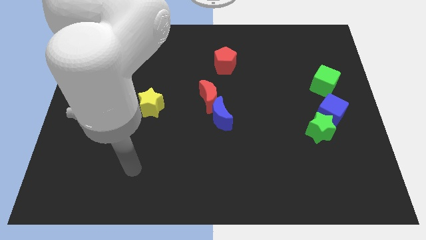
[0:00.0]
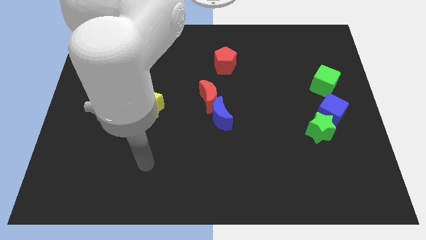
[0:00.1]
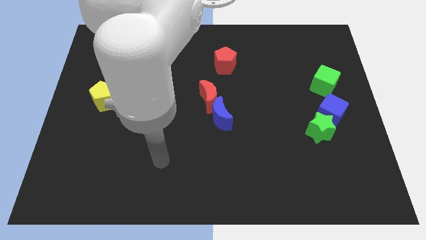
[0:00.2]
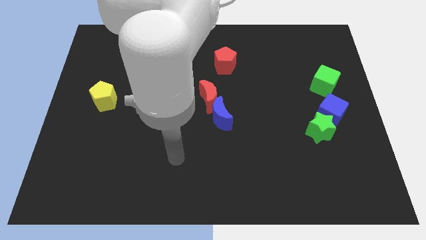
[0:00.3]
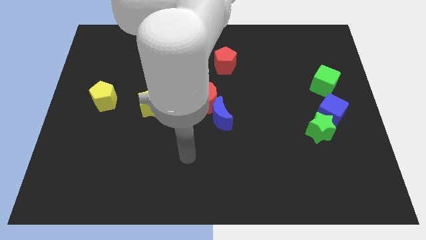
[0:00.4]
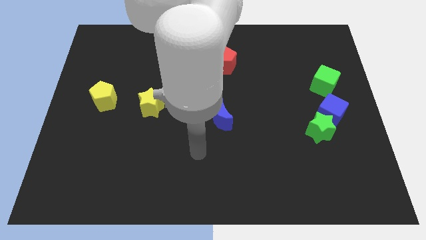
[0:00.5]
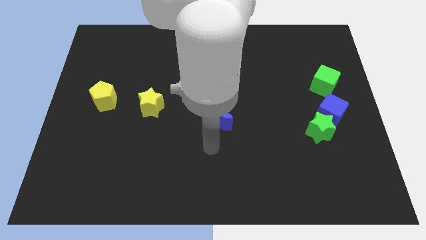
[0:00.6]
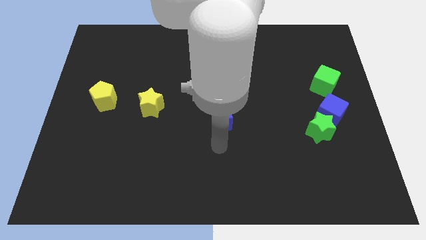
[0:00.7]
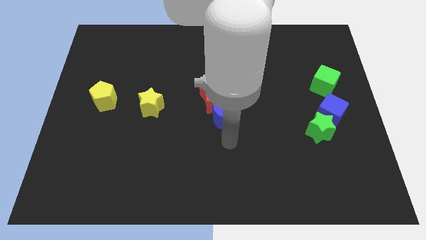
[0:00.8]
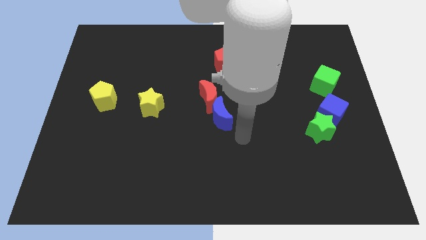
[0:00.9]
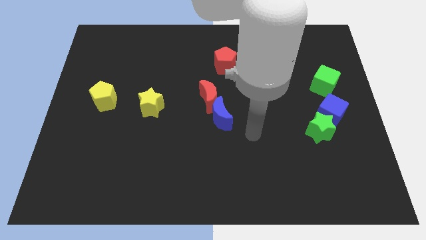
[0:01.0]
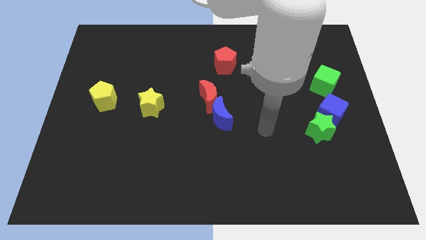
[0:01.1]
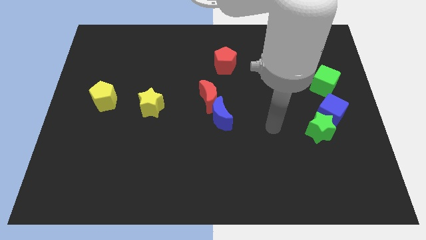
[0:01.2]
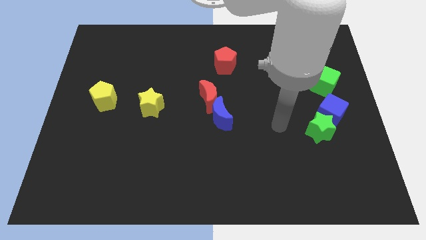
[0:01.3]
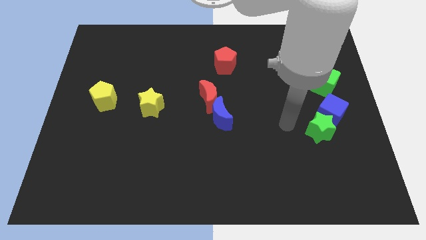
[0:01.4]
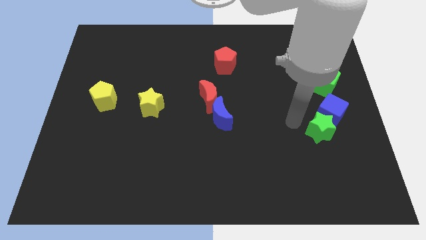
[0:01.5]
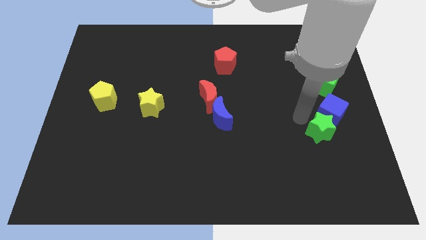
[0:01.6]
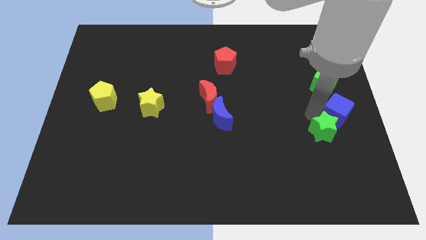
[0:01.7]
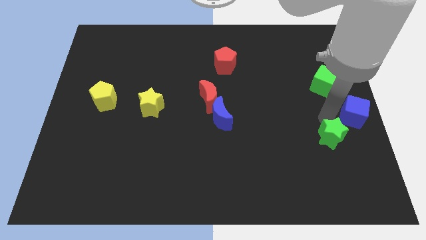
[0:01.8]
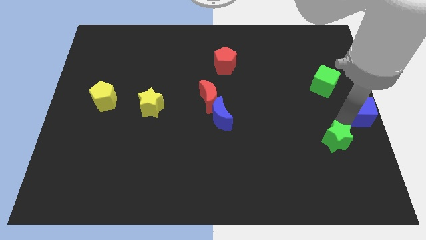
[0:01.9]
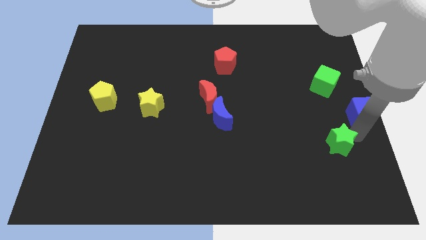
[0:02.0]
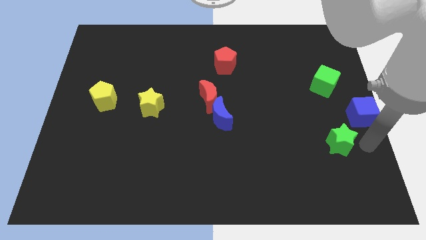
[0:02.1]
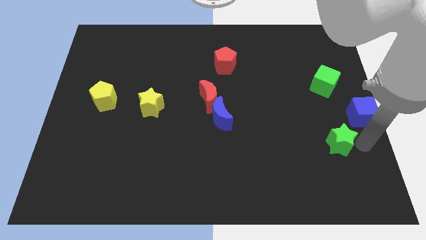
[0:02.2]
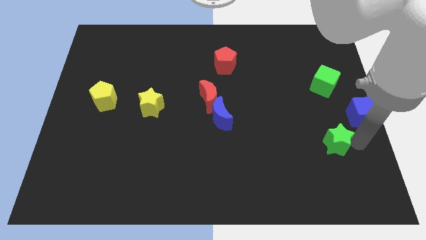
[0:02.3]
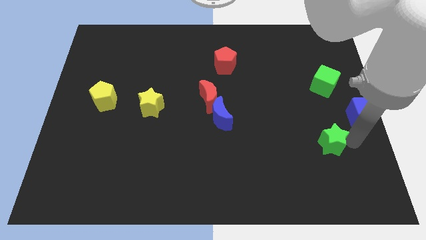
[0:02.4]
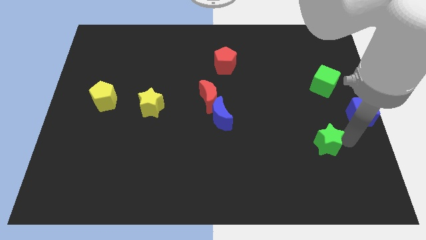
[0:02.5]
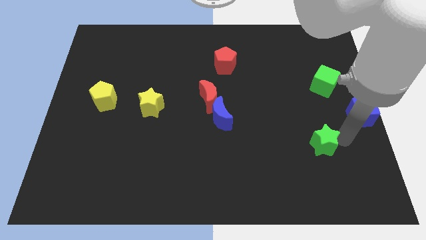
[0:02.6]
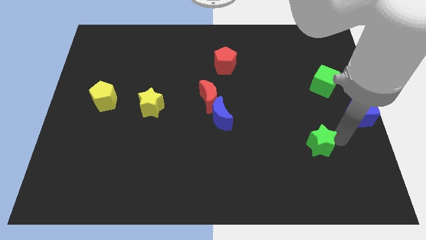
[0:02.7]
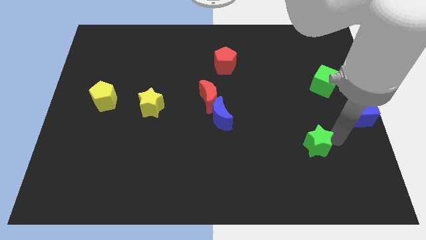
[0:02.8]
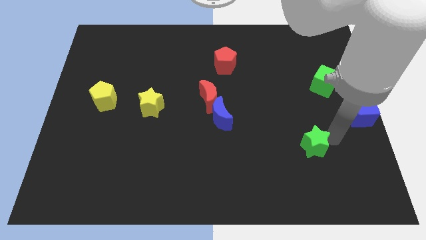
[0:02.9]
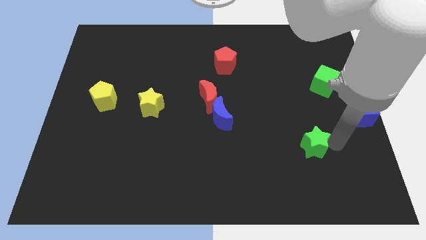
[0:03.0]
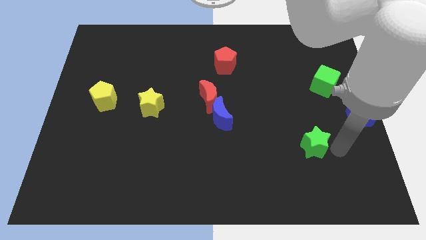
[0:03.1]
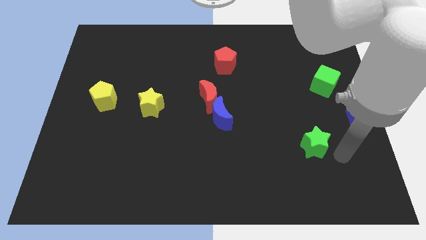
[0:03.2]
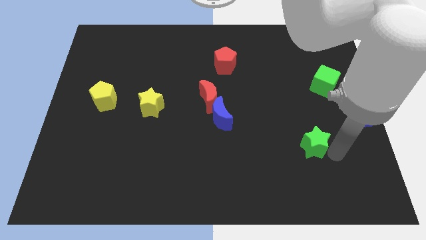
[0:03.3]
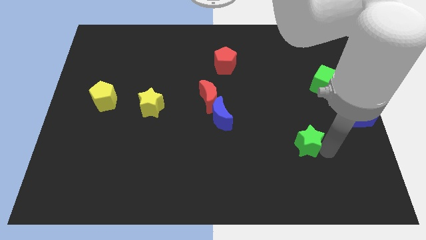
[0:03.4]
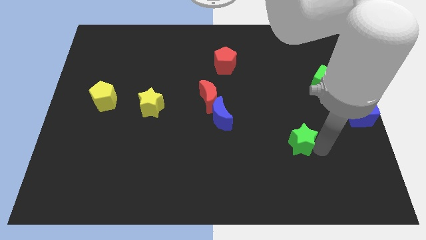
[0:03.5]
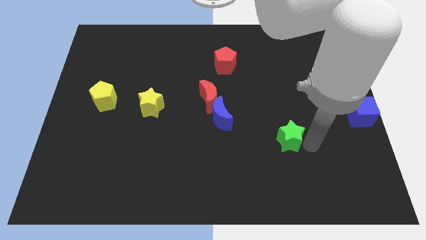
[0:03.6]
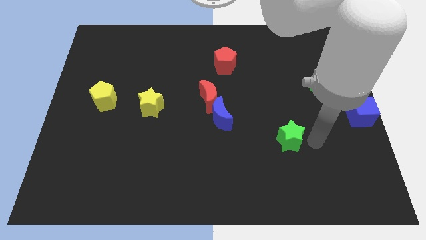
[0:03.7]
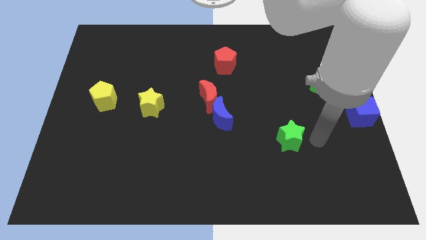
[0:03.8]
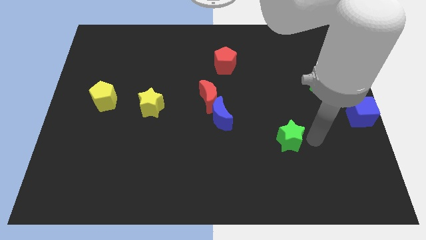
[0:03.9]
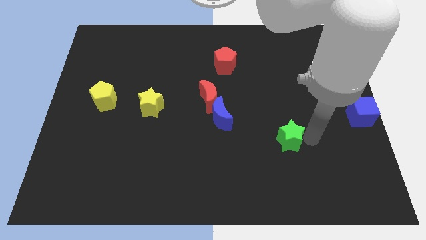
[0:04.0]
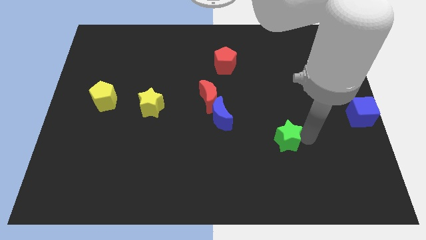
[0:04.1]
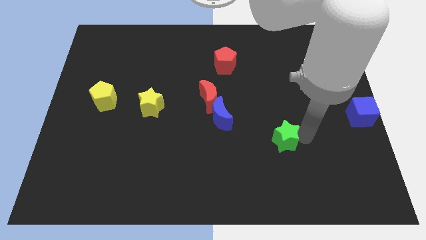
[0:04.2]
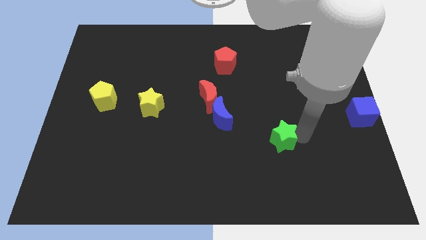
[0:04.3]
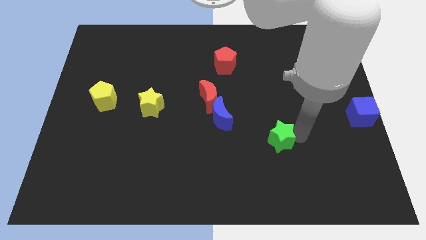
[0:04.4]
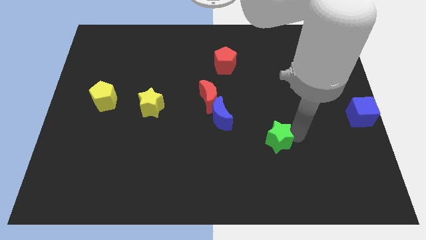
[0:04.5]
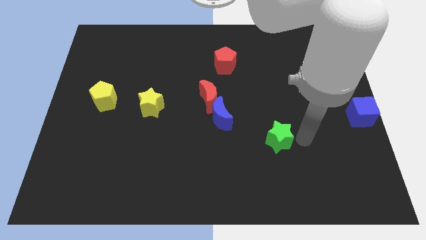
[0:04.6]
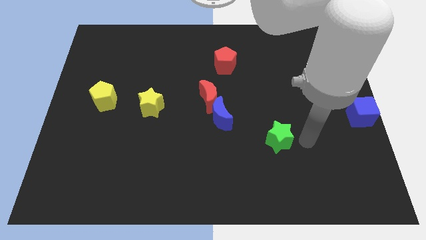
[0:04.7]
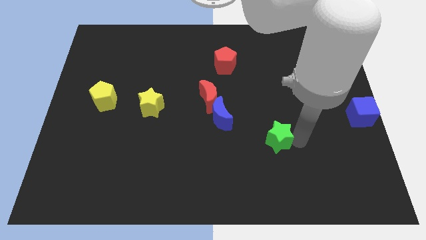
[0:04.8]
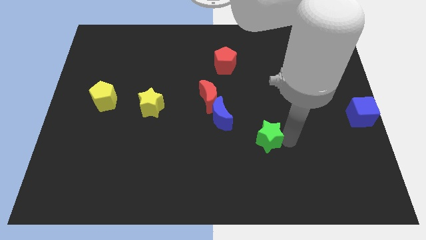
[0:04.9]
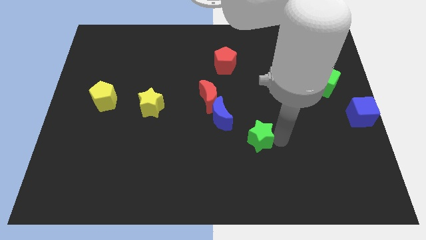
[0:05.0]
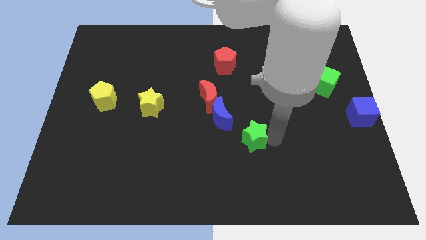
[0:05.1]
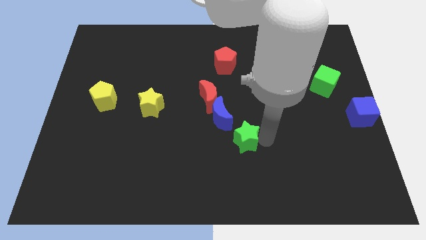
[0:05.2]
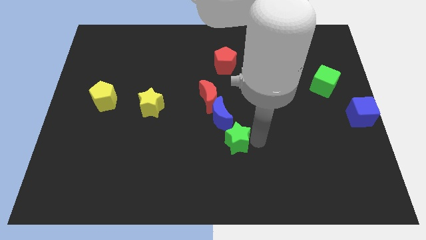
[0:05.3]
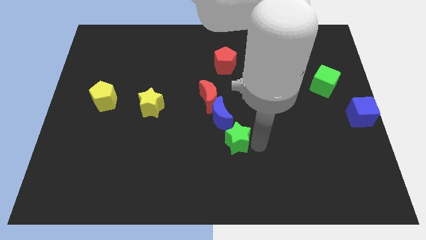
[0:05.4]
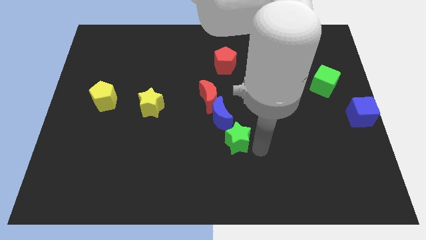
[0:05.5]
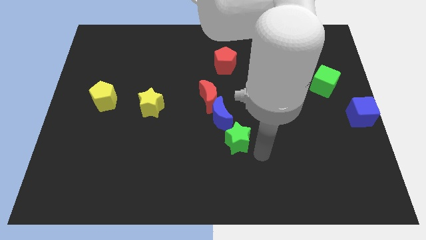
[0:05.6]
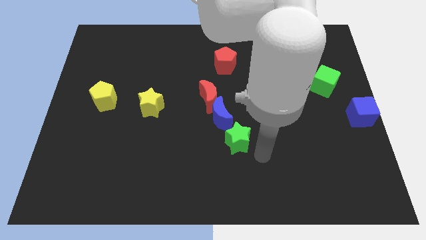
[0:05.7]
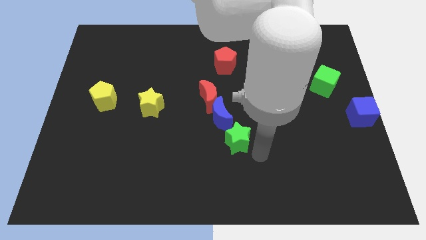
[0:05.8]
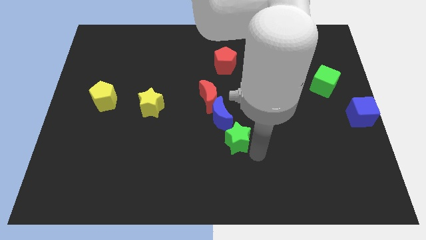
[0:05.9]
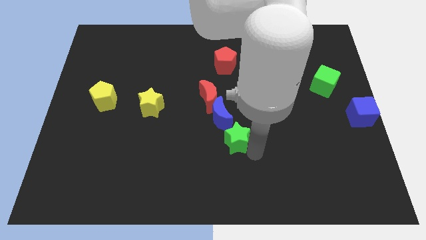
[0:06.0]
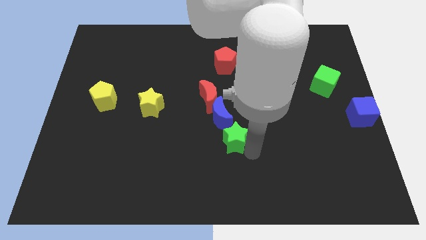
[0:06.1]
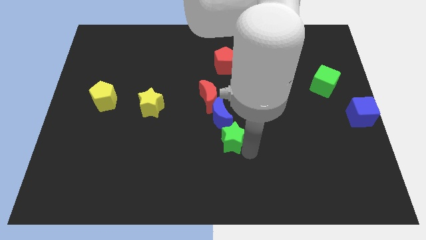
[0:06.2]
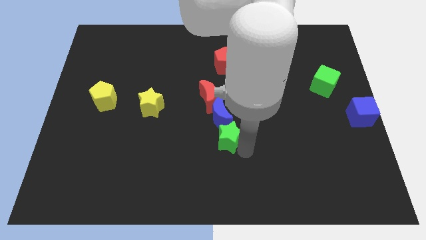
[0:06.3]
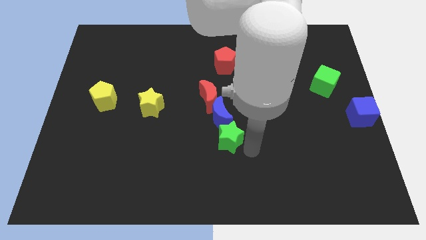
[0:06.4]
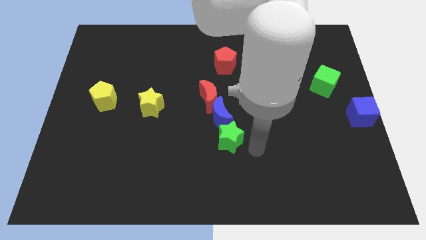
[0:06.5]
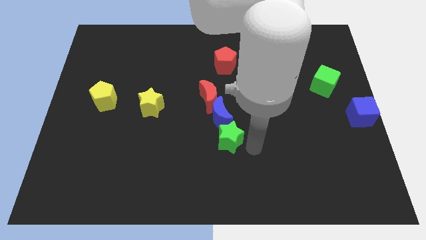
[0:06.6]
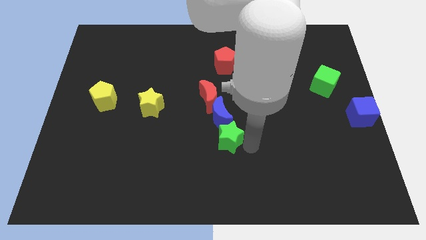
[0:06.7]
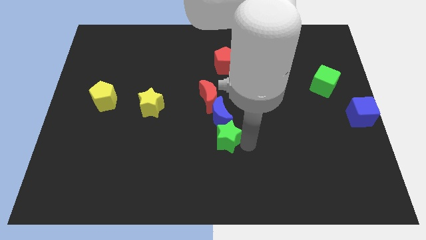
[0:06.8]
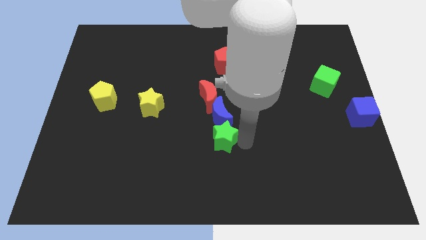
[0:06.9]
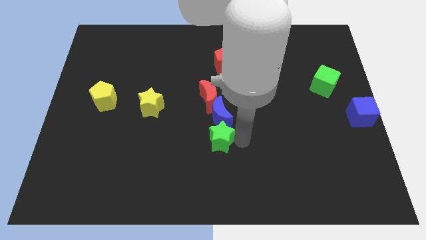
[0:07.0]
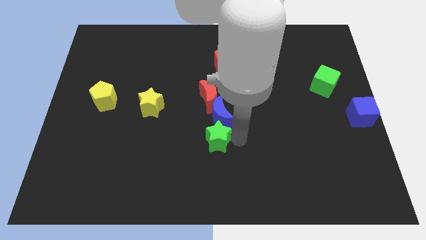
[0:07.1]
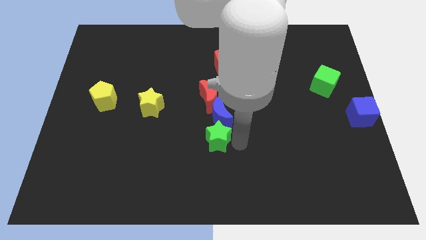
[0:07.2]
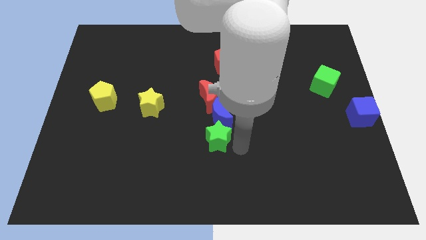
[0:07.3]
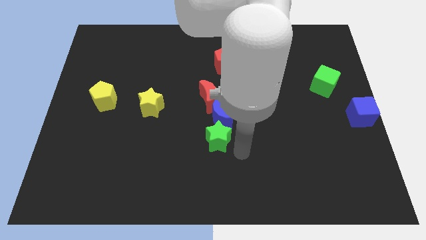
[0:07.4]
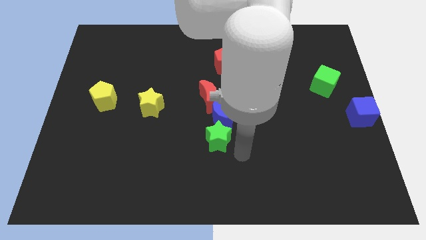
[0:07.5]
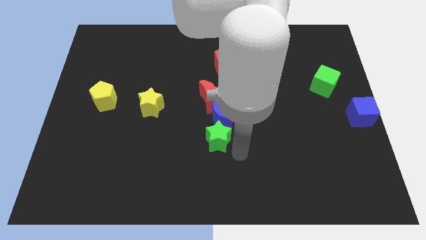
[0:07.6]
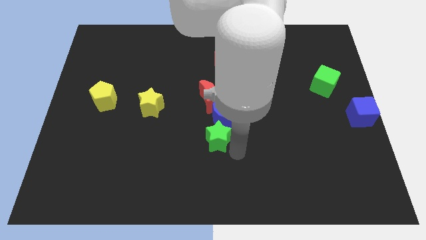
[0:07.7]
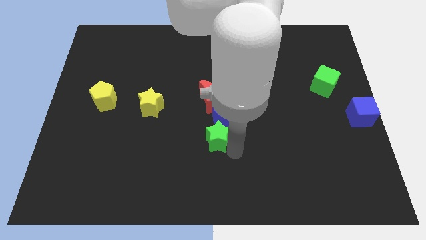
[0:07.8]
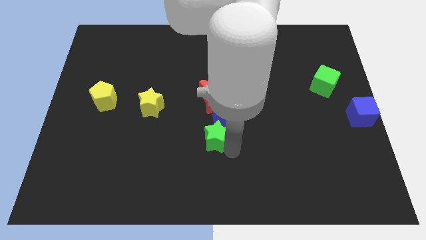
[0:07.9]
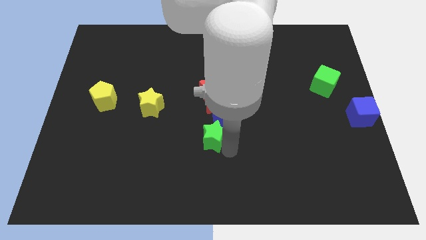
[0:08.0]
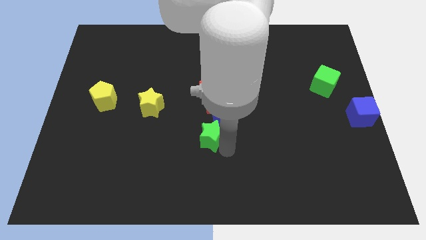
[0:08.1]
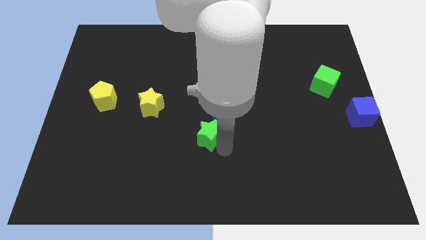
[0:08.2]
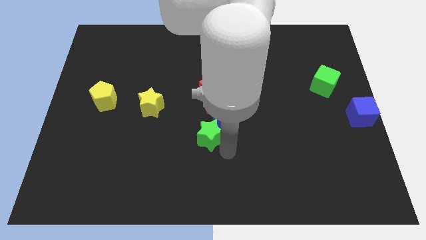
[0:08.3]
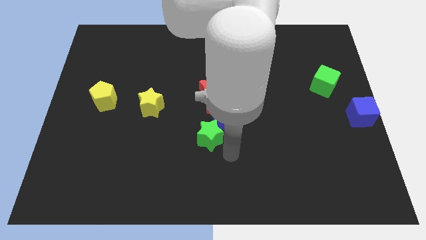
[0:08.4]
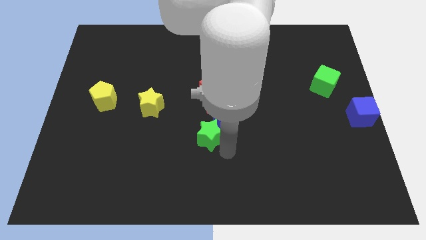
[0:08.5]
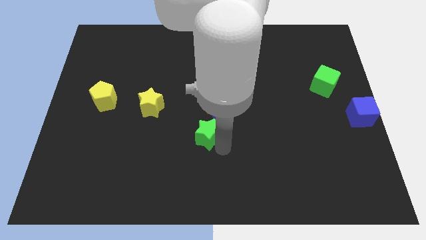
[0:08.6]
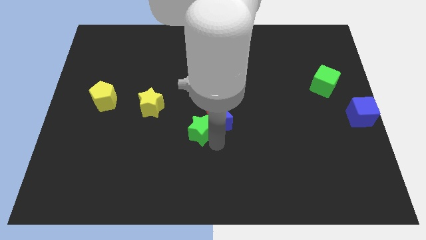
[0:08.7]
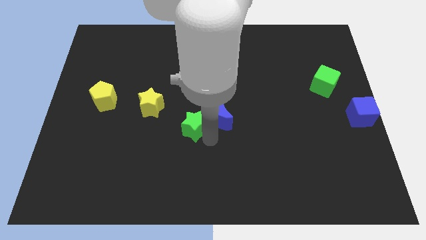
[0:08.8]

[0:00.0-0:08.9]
move the green star to the bottom left side of the red moon
